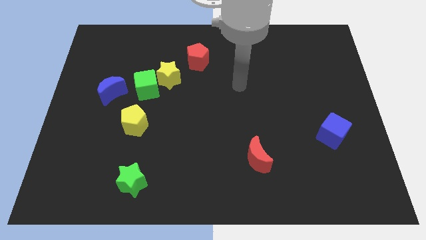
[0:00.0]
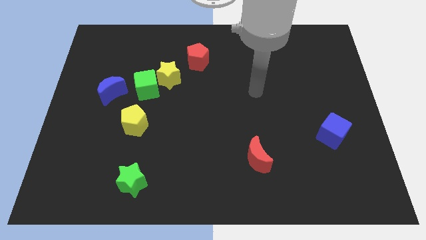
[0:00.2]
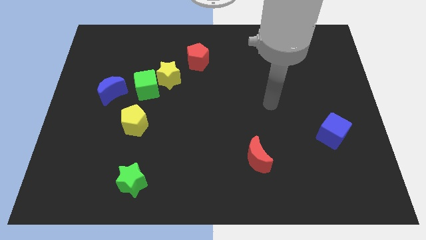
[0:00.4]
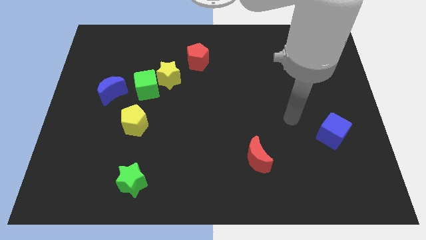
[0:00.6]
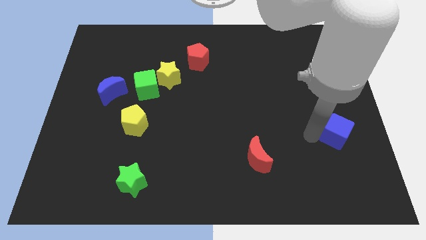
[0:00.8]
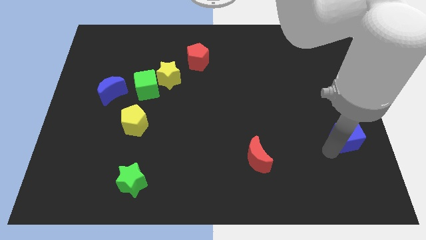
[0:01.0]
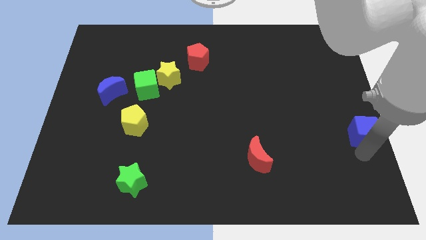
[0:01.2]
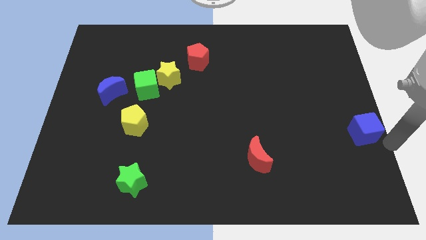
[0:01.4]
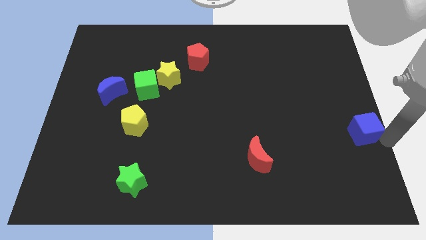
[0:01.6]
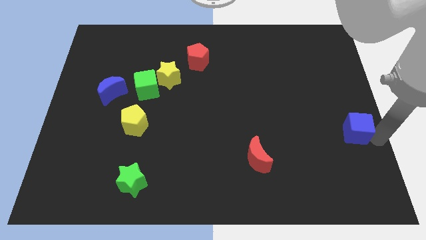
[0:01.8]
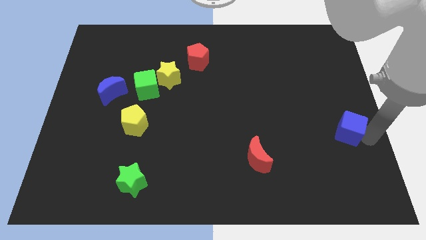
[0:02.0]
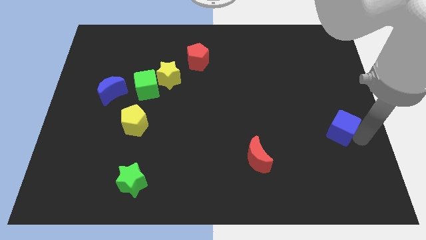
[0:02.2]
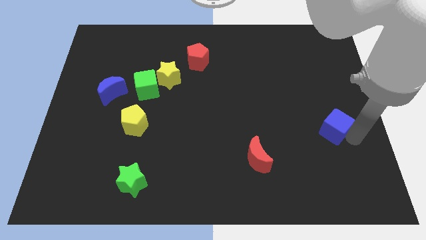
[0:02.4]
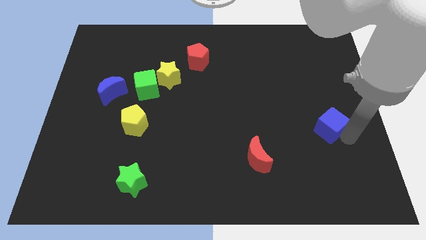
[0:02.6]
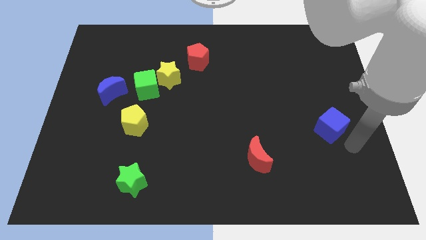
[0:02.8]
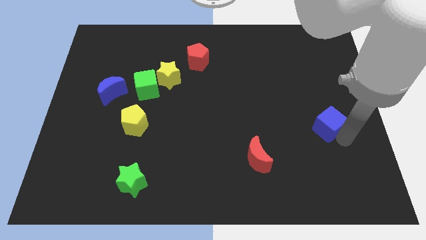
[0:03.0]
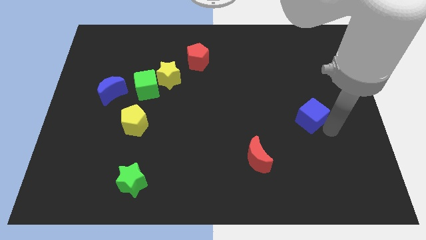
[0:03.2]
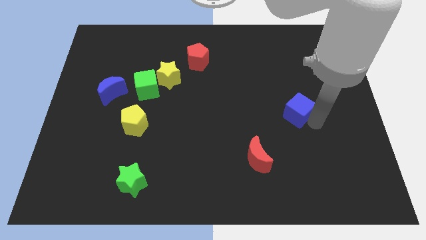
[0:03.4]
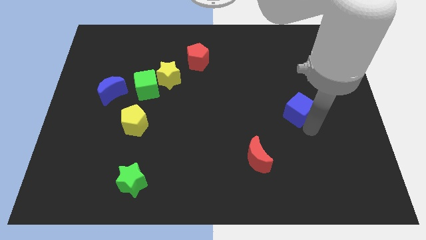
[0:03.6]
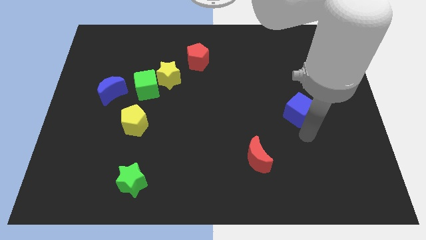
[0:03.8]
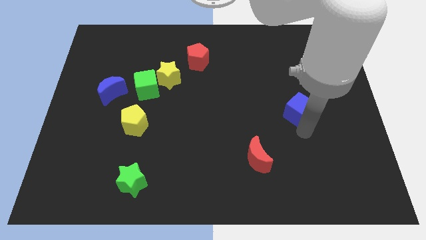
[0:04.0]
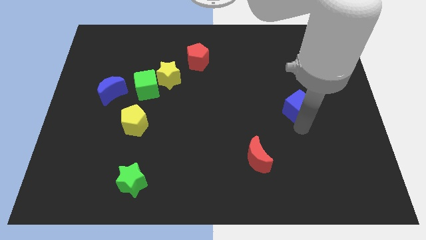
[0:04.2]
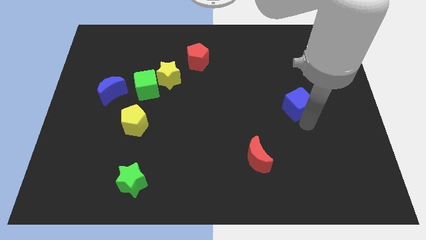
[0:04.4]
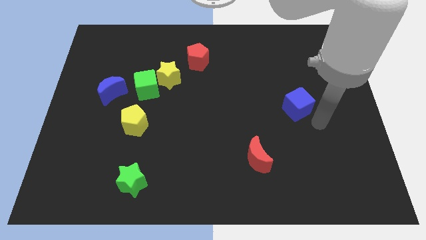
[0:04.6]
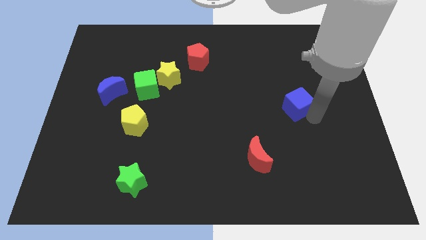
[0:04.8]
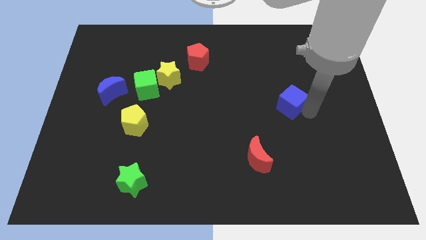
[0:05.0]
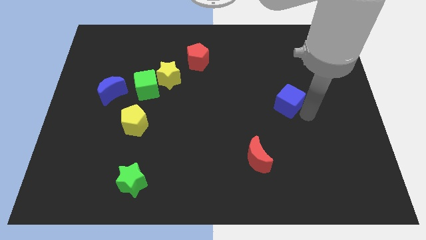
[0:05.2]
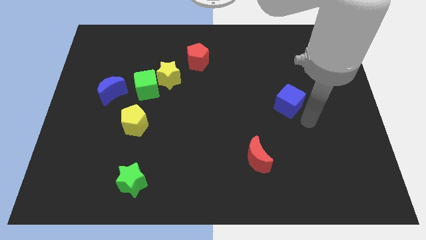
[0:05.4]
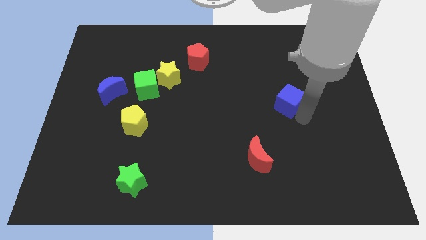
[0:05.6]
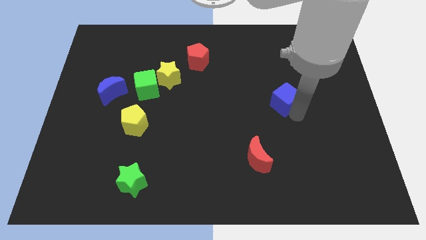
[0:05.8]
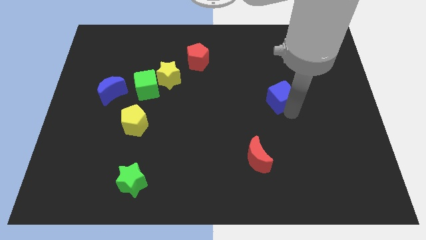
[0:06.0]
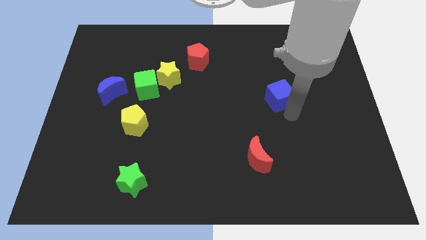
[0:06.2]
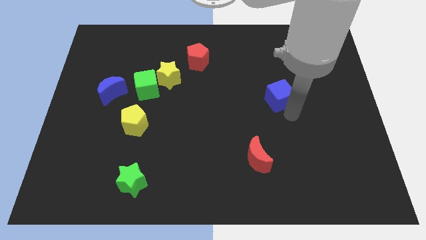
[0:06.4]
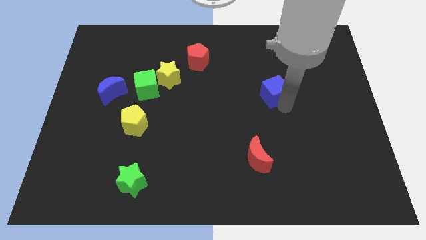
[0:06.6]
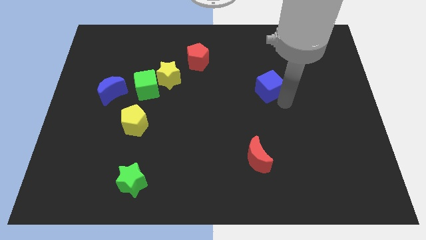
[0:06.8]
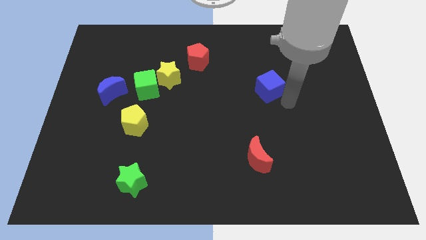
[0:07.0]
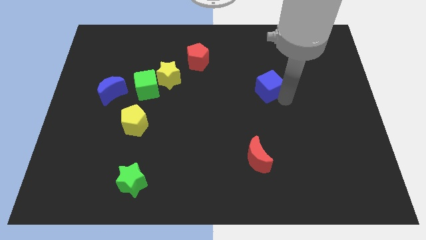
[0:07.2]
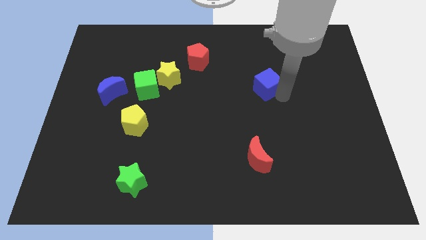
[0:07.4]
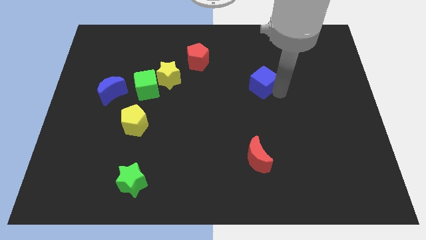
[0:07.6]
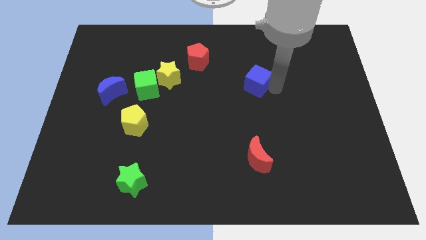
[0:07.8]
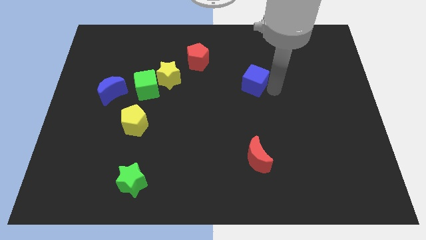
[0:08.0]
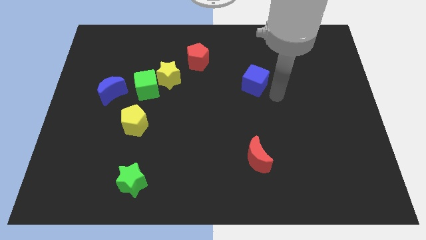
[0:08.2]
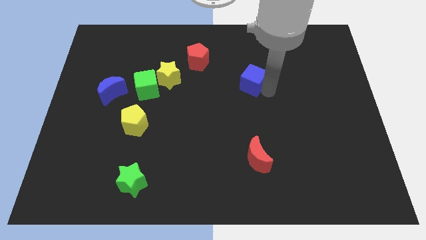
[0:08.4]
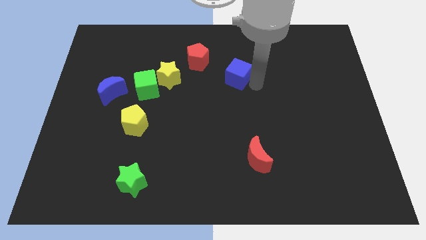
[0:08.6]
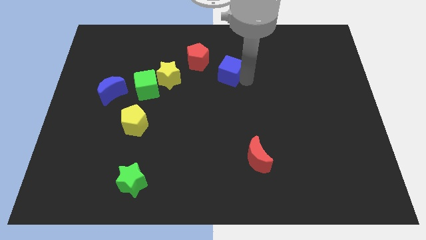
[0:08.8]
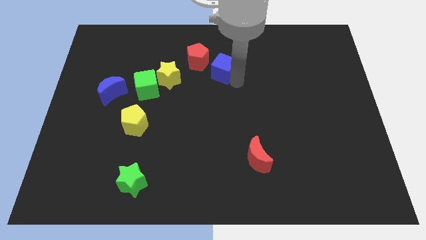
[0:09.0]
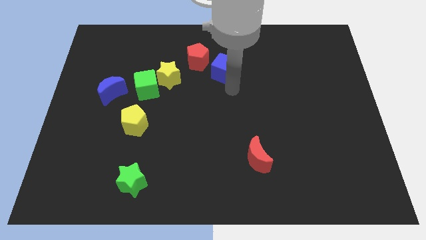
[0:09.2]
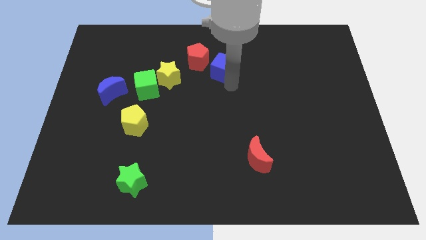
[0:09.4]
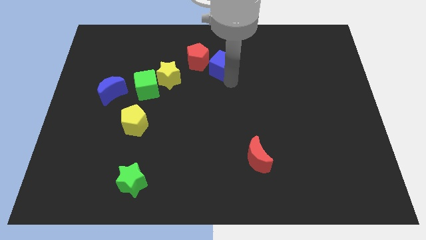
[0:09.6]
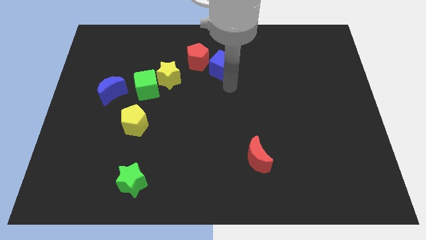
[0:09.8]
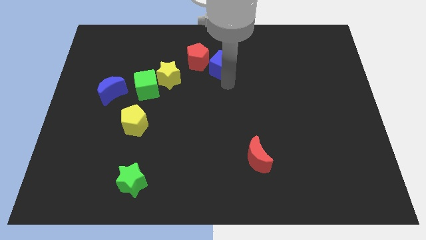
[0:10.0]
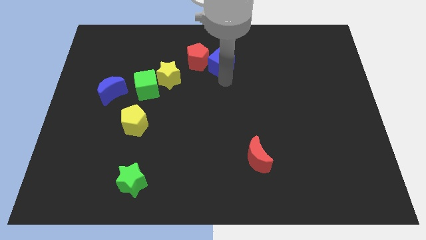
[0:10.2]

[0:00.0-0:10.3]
push the blue cube close to the red pentagon
